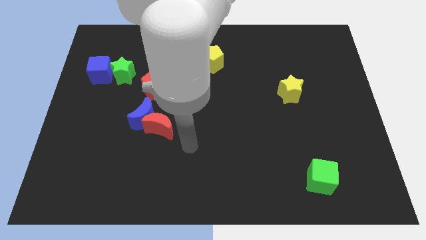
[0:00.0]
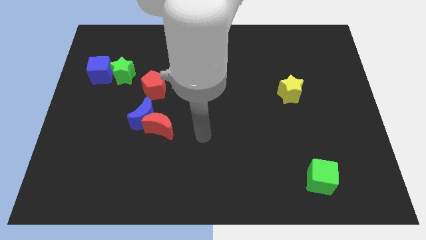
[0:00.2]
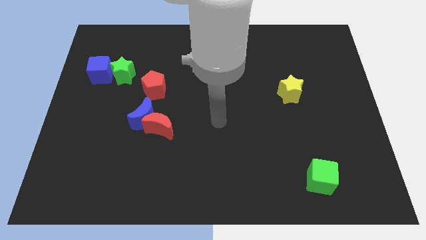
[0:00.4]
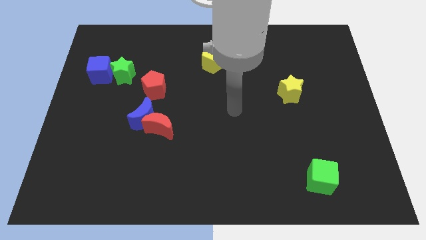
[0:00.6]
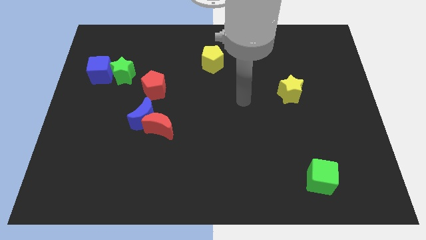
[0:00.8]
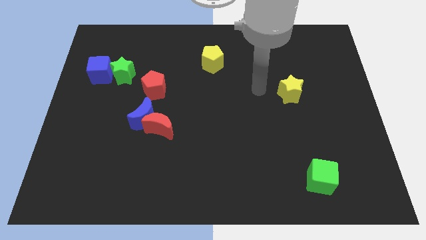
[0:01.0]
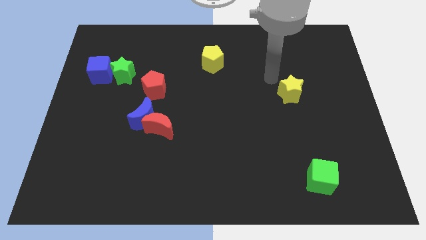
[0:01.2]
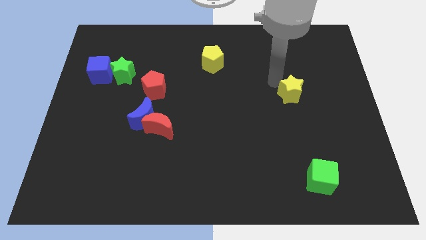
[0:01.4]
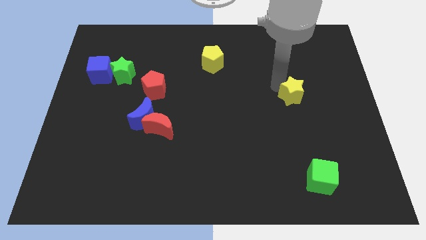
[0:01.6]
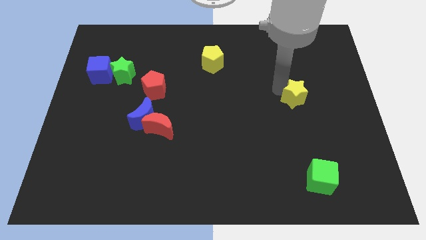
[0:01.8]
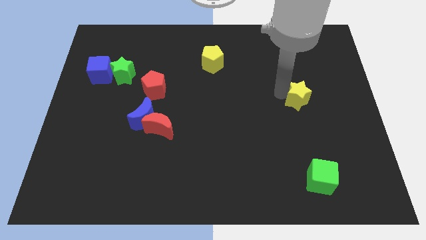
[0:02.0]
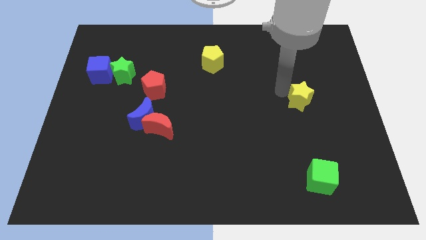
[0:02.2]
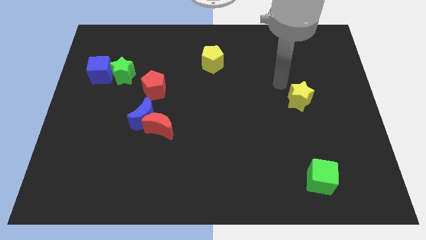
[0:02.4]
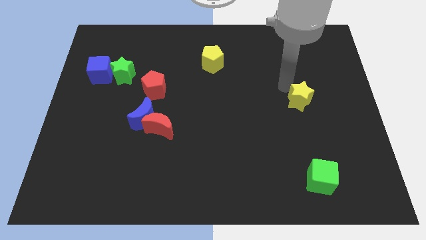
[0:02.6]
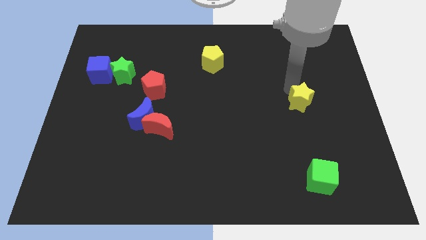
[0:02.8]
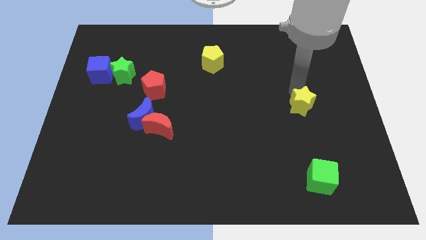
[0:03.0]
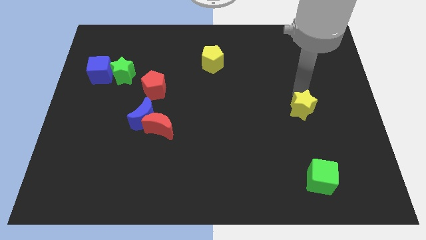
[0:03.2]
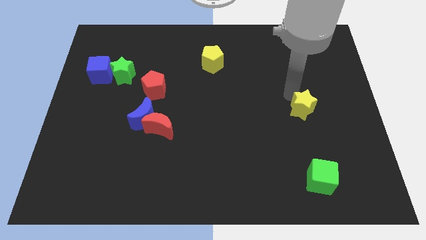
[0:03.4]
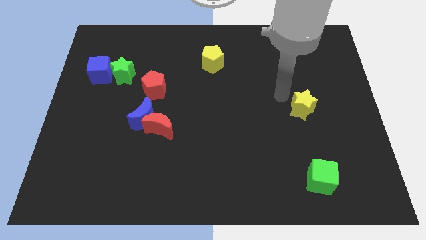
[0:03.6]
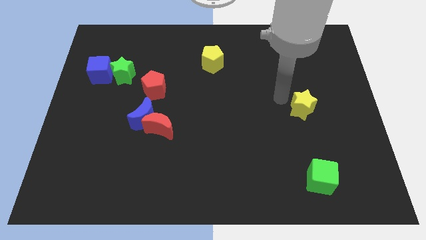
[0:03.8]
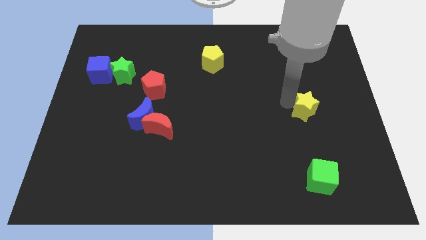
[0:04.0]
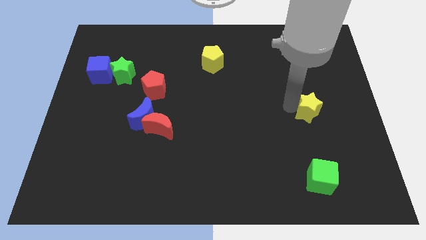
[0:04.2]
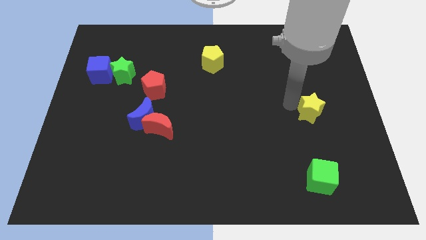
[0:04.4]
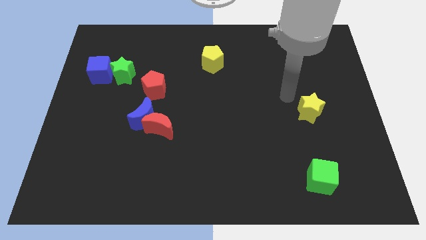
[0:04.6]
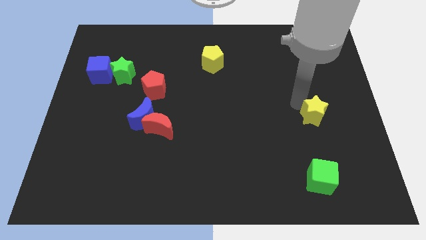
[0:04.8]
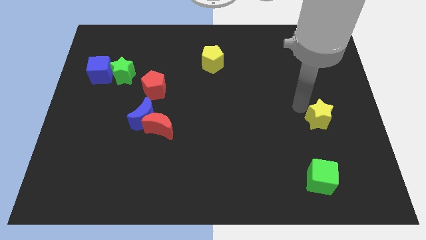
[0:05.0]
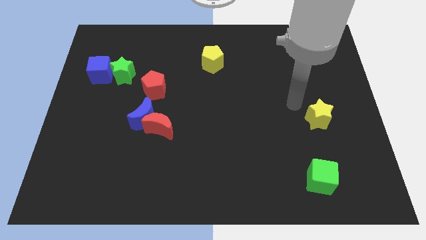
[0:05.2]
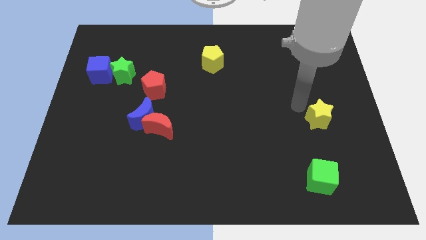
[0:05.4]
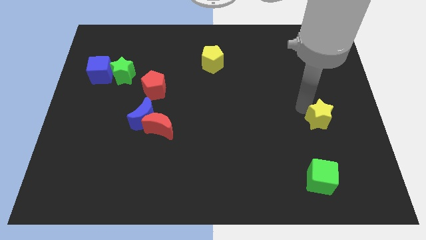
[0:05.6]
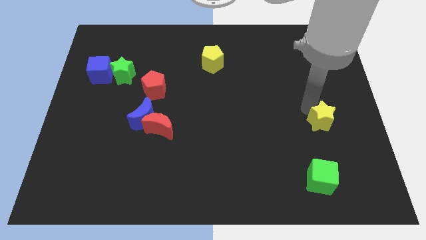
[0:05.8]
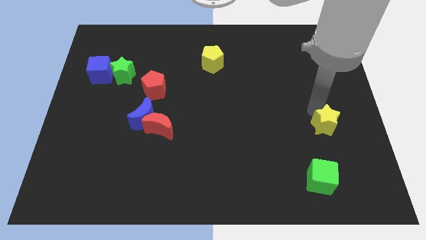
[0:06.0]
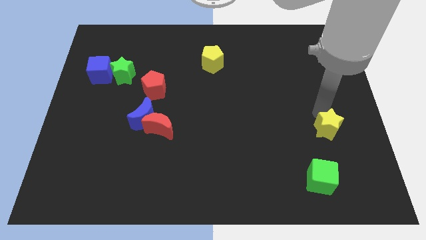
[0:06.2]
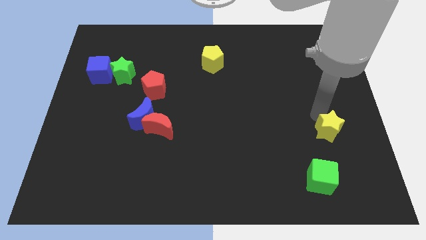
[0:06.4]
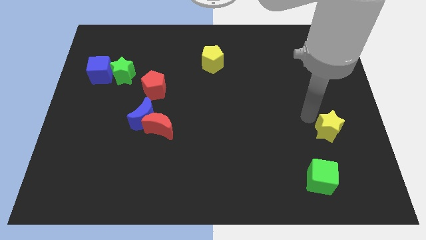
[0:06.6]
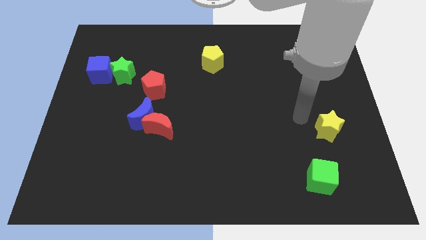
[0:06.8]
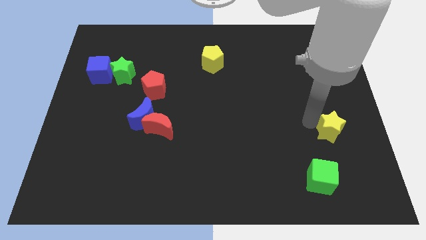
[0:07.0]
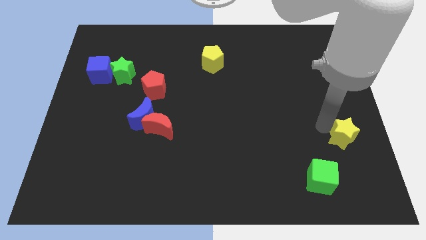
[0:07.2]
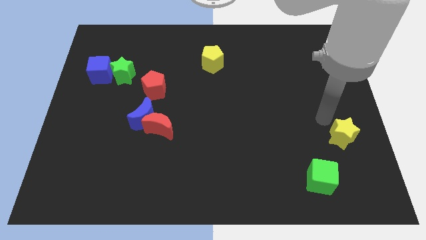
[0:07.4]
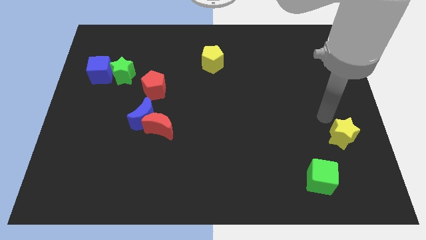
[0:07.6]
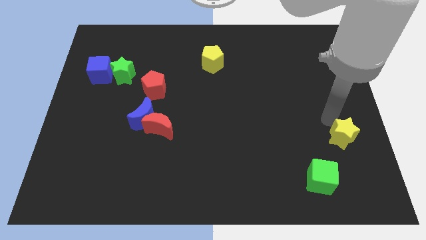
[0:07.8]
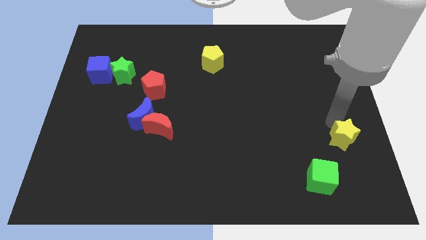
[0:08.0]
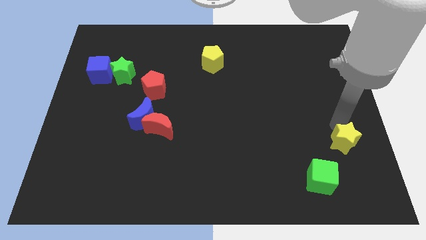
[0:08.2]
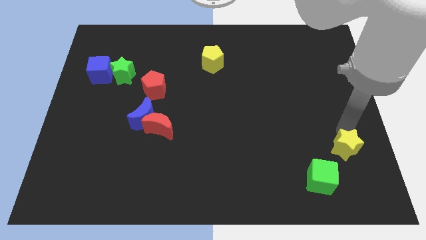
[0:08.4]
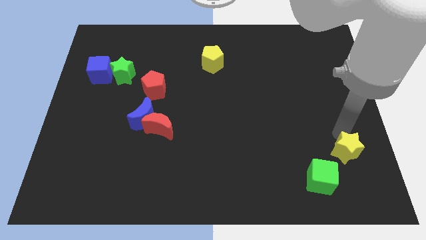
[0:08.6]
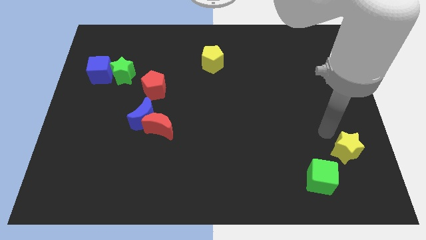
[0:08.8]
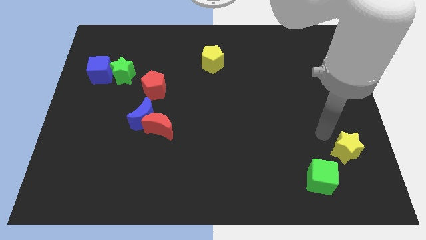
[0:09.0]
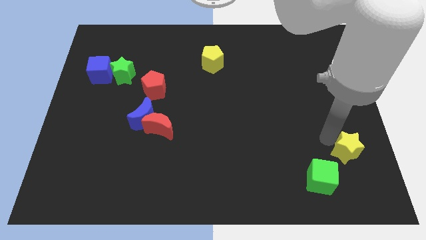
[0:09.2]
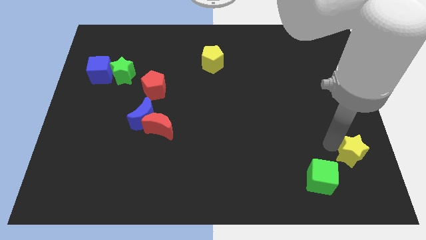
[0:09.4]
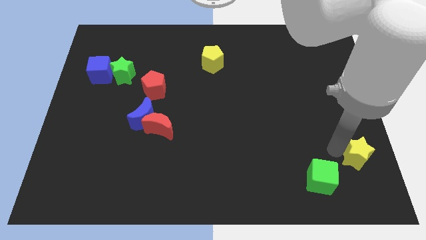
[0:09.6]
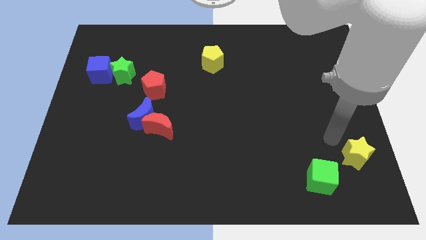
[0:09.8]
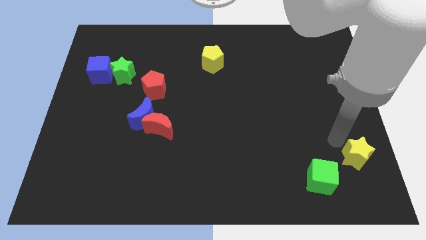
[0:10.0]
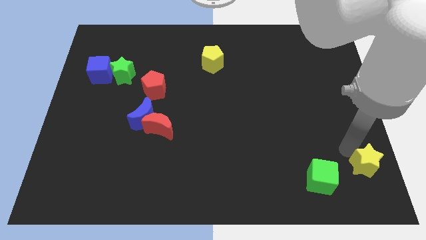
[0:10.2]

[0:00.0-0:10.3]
move the yellow star to the bottom right corner
